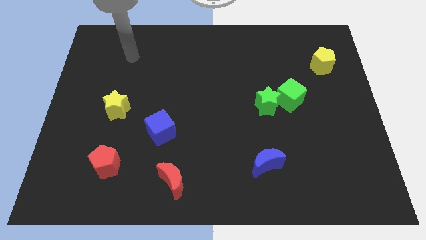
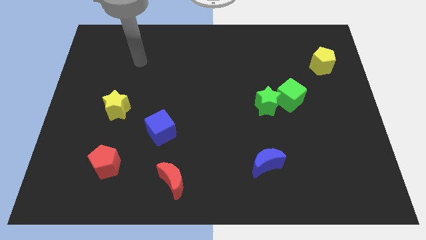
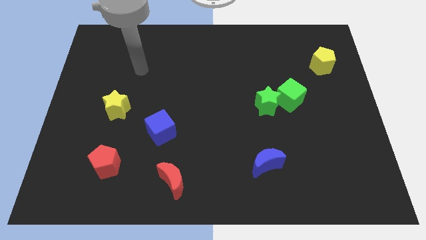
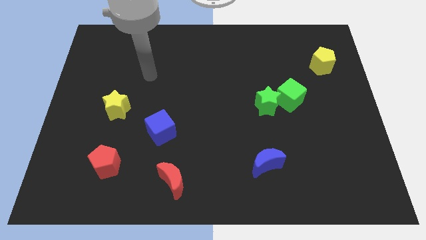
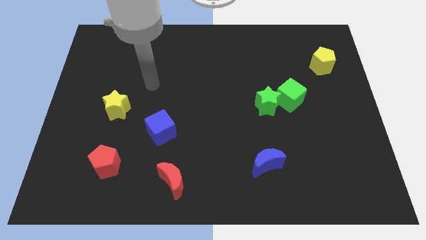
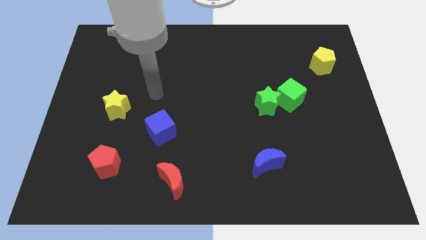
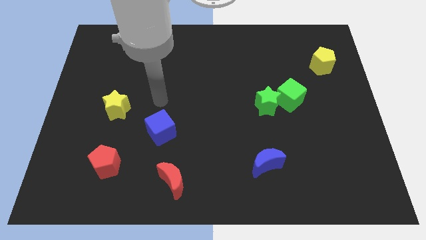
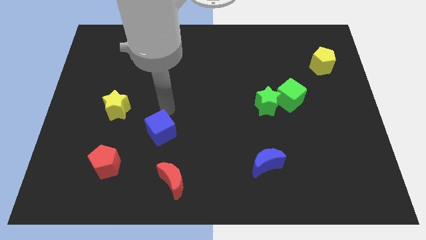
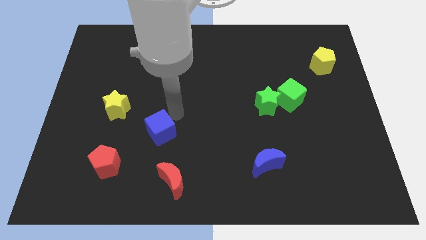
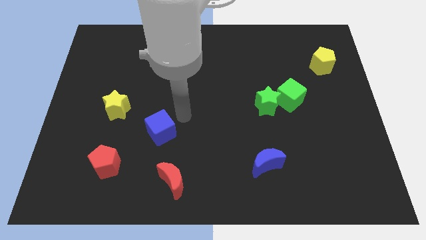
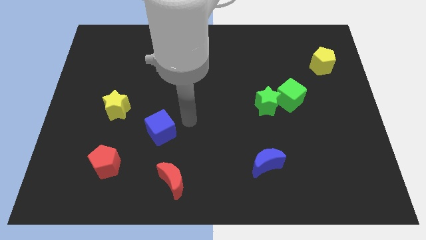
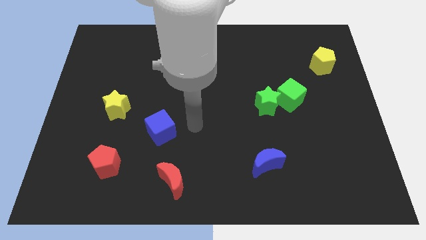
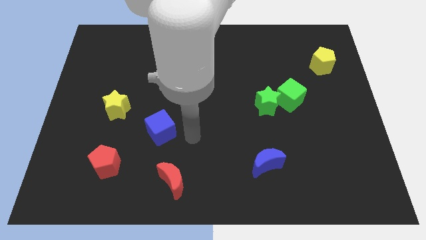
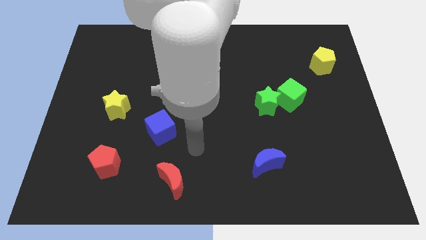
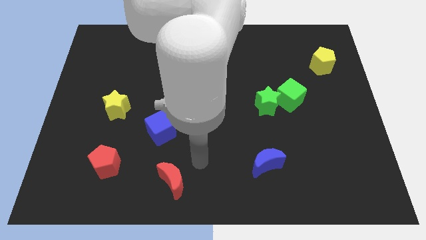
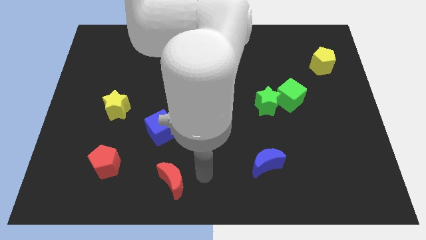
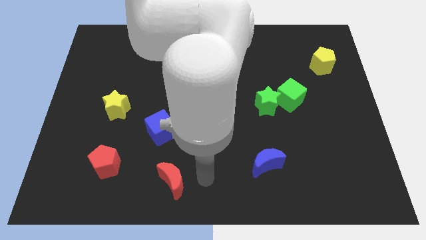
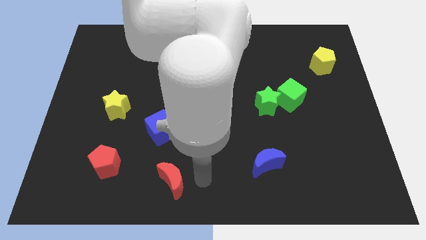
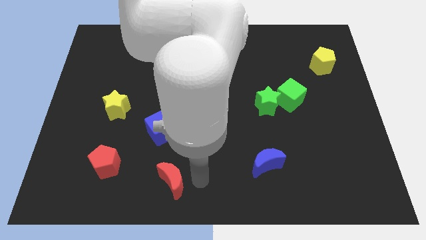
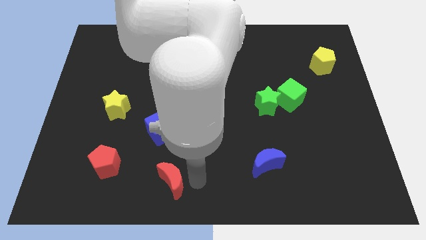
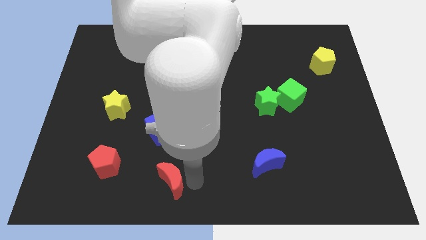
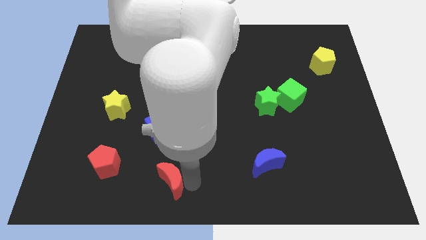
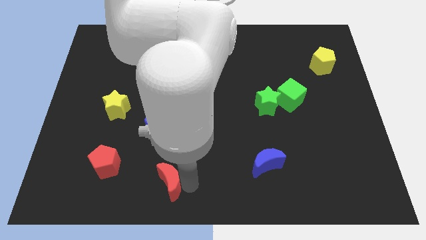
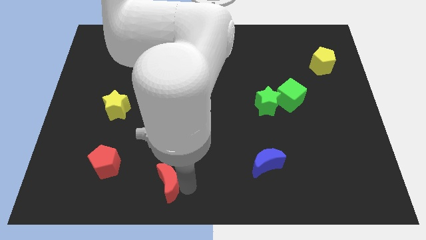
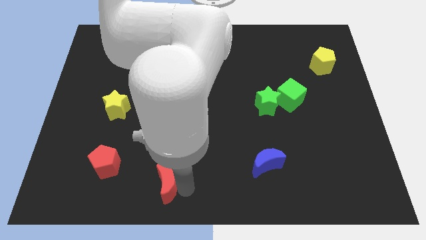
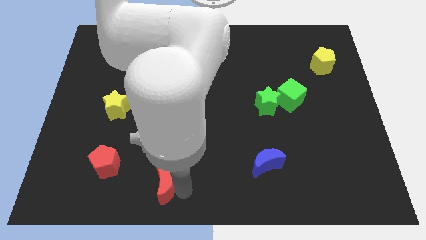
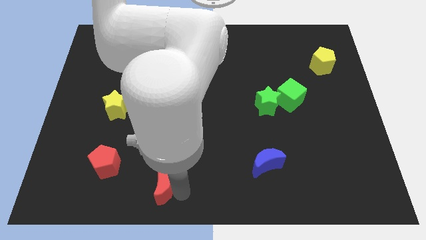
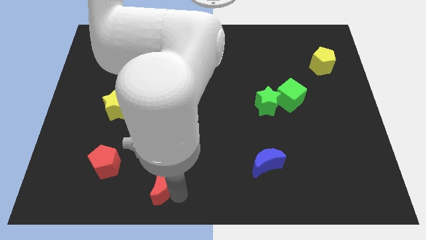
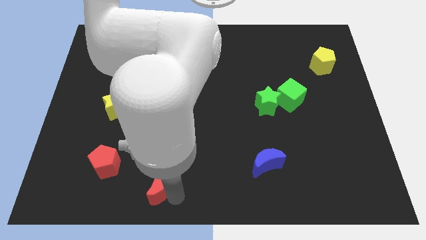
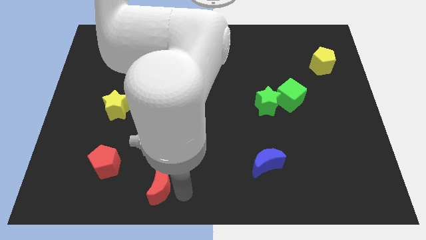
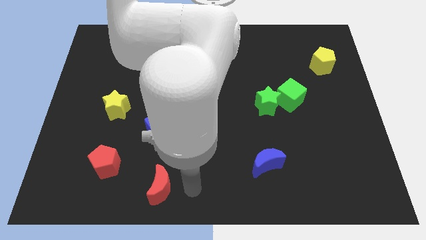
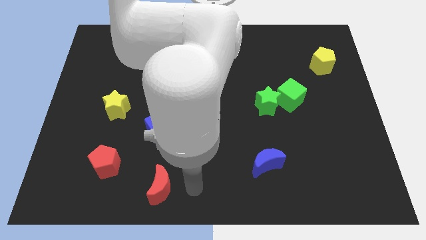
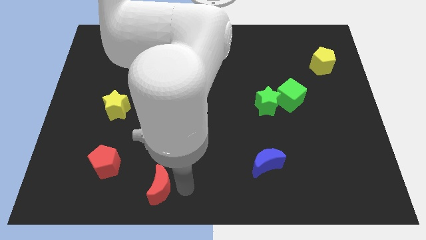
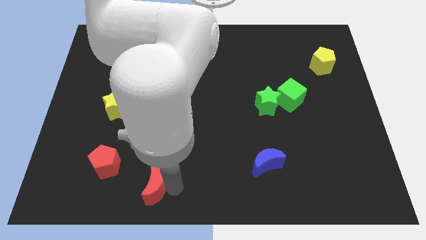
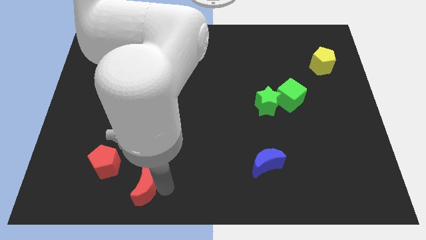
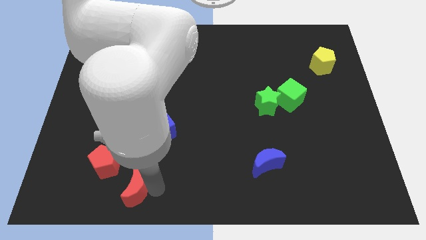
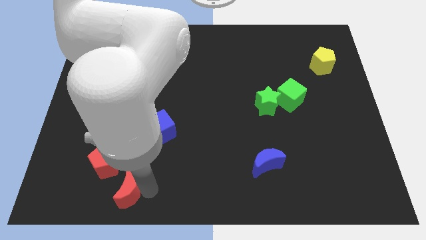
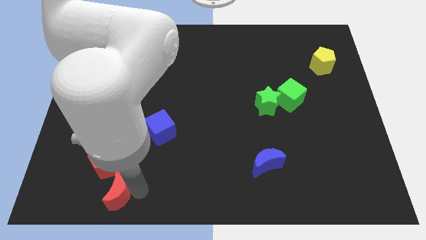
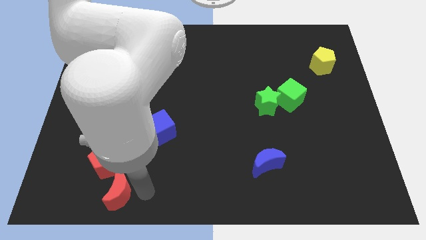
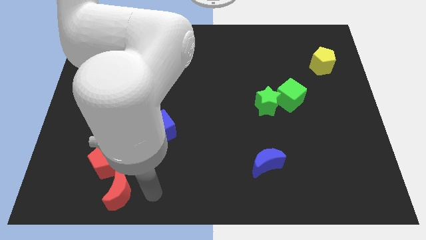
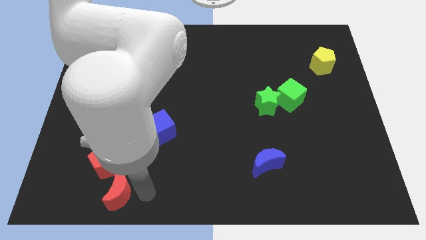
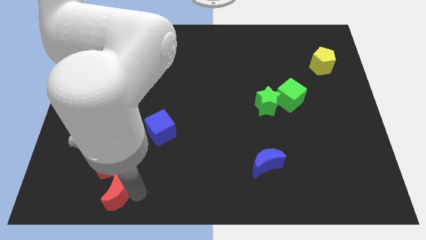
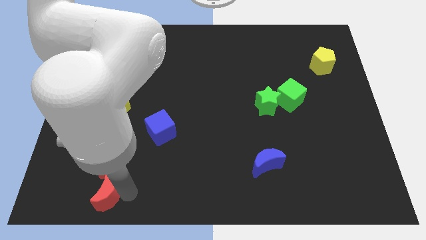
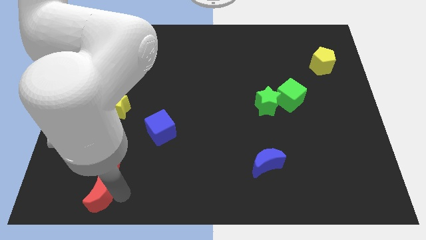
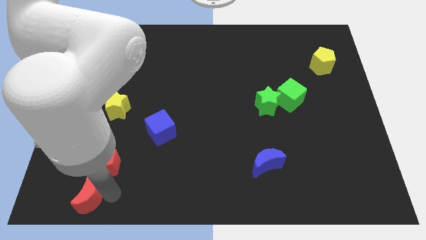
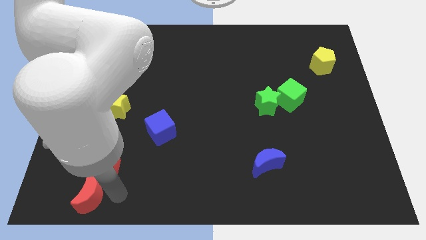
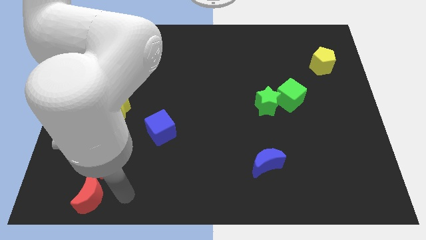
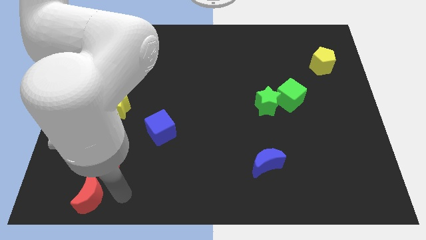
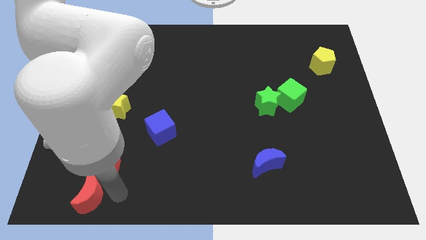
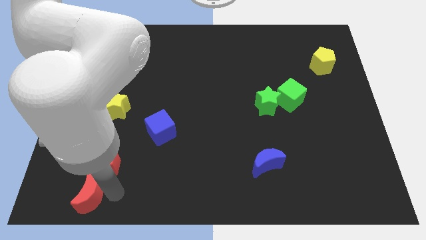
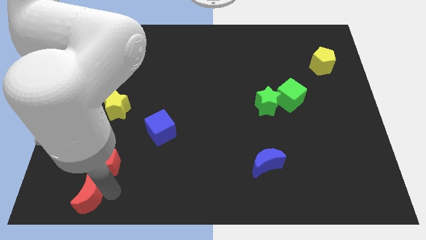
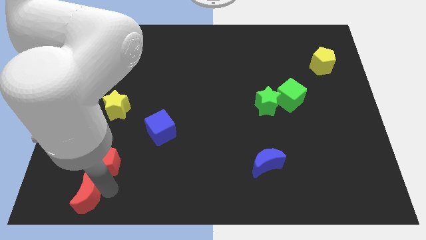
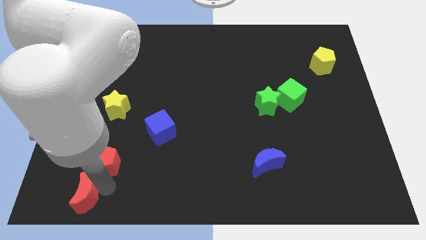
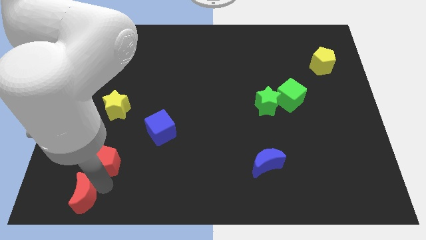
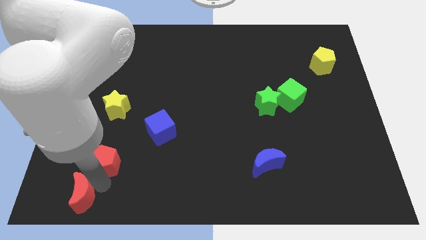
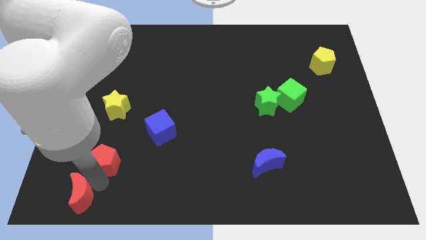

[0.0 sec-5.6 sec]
push the red moon to the bottom left of the board
